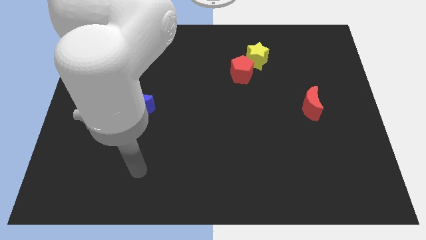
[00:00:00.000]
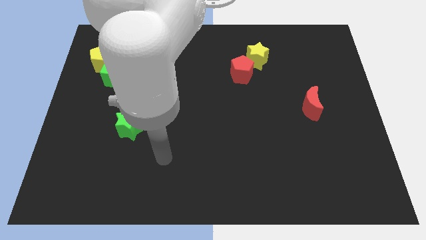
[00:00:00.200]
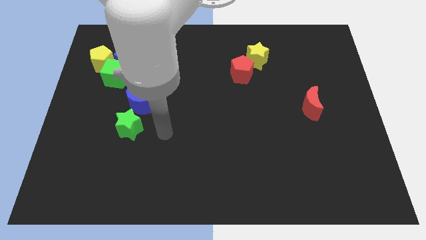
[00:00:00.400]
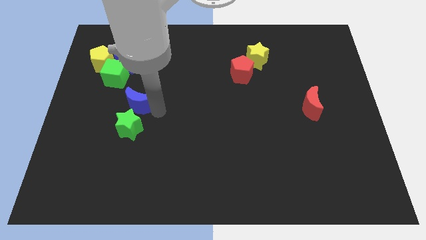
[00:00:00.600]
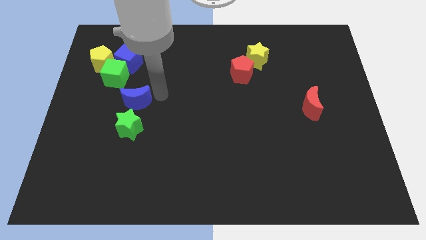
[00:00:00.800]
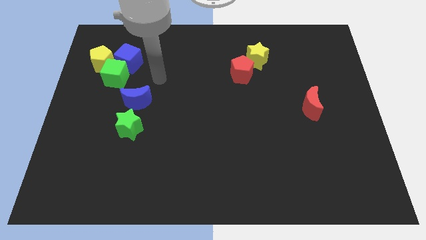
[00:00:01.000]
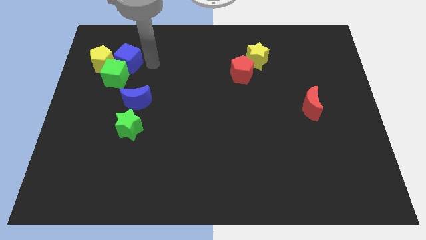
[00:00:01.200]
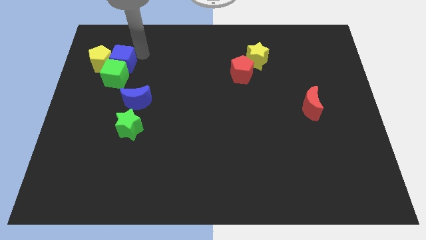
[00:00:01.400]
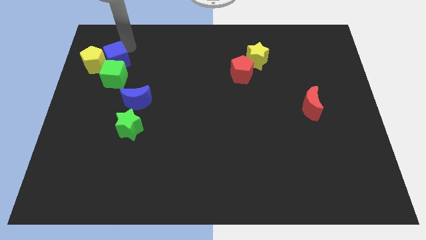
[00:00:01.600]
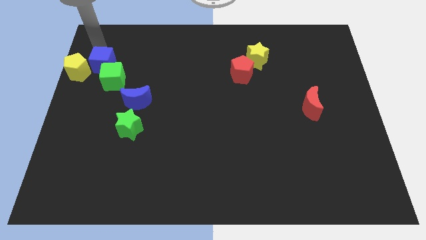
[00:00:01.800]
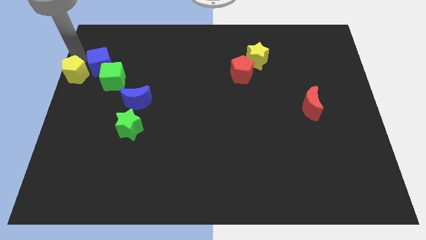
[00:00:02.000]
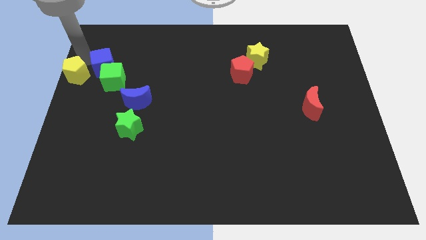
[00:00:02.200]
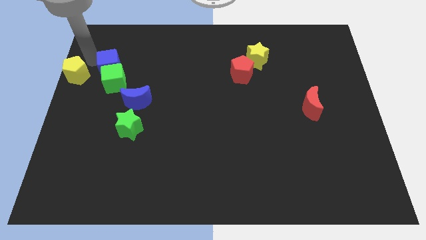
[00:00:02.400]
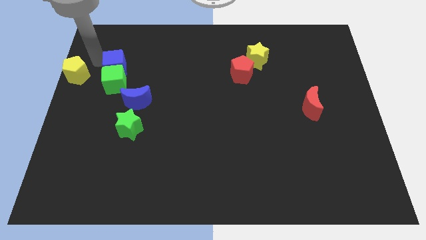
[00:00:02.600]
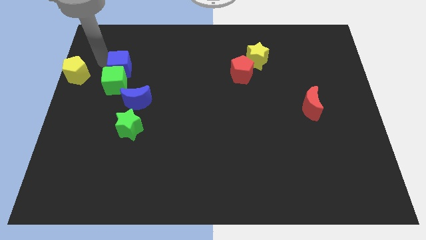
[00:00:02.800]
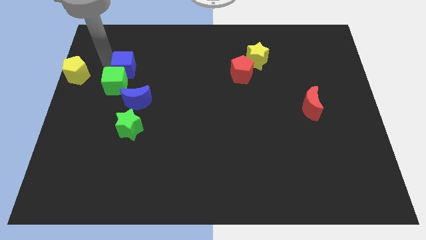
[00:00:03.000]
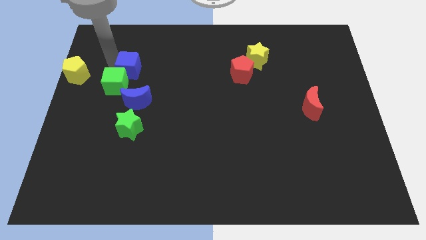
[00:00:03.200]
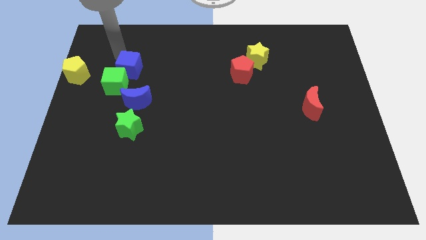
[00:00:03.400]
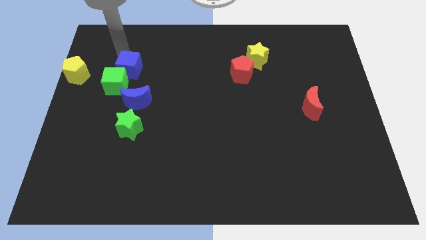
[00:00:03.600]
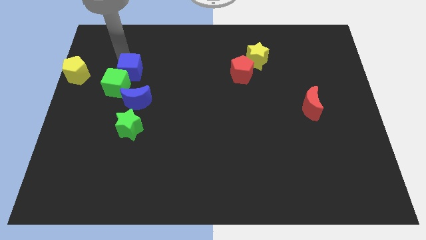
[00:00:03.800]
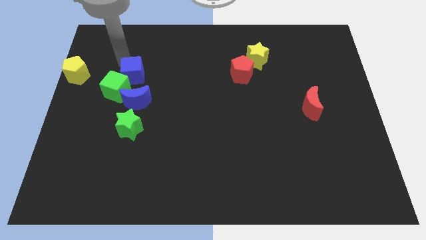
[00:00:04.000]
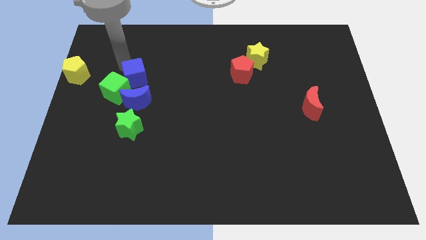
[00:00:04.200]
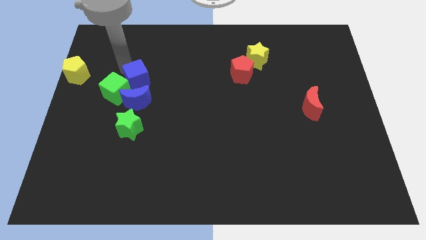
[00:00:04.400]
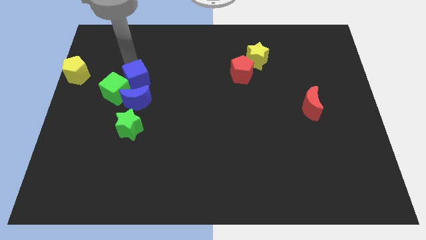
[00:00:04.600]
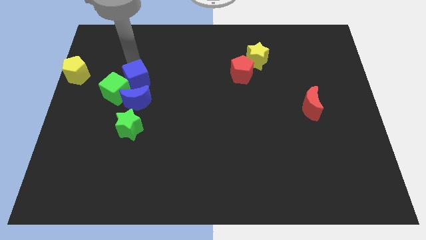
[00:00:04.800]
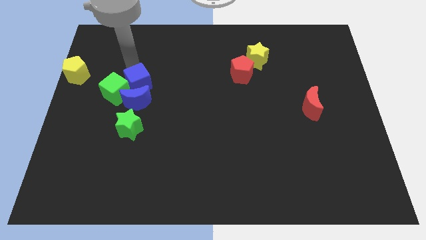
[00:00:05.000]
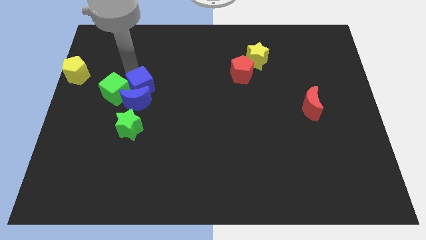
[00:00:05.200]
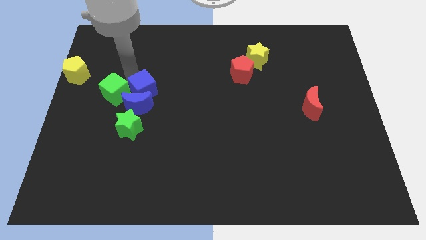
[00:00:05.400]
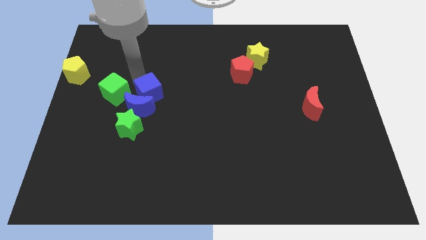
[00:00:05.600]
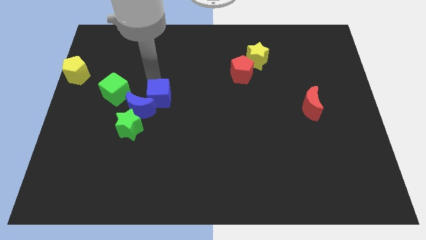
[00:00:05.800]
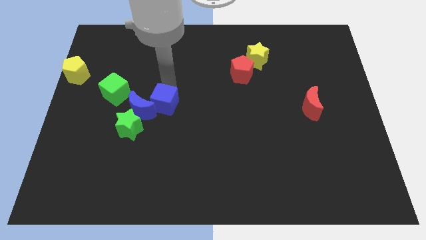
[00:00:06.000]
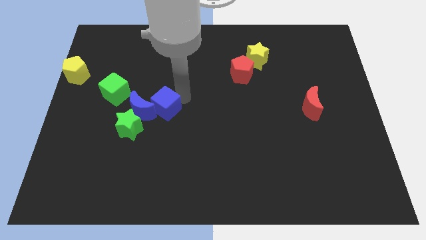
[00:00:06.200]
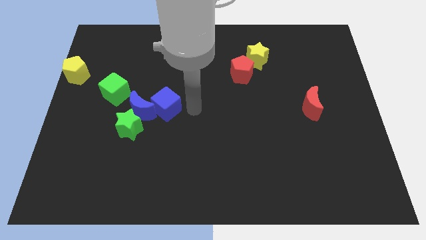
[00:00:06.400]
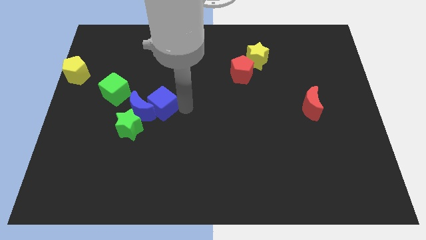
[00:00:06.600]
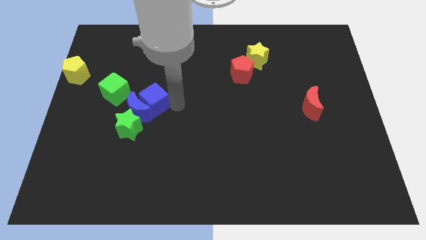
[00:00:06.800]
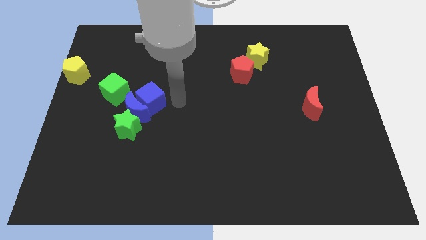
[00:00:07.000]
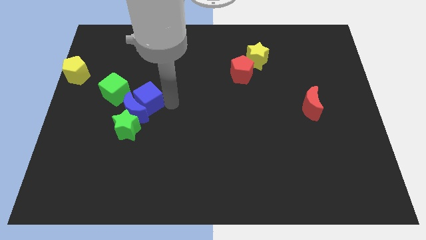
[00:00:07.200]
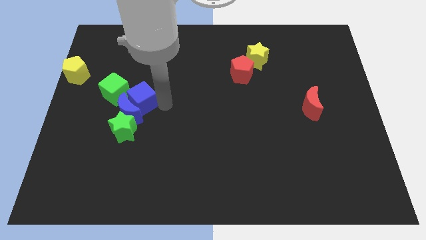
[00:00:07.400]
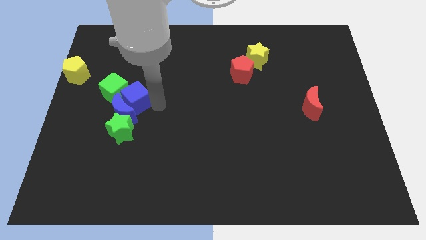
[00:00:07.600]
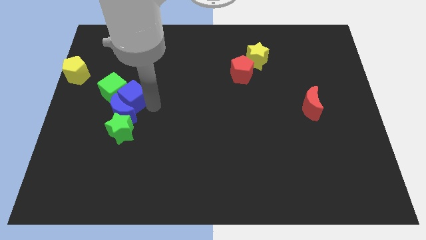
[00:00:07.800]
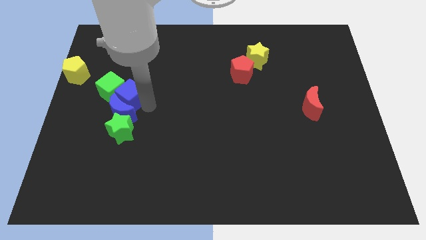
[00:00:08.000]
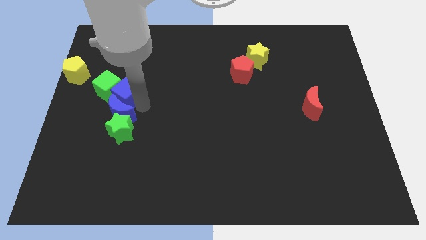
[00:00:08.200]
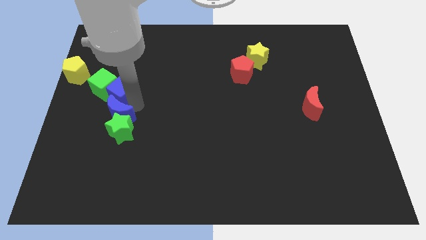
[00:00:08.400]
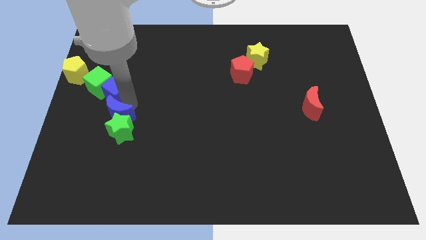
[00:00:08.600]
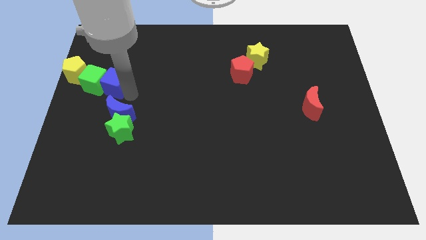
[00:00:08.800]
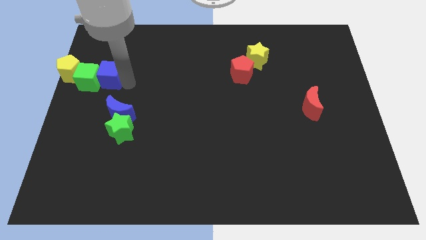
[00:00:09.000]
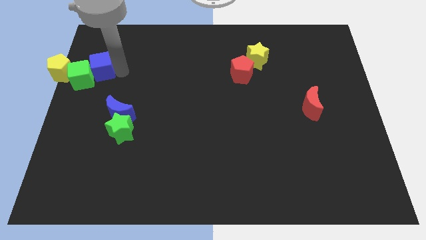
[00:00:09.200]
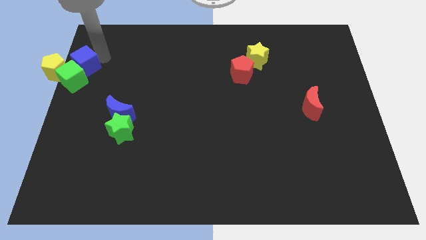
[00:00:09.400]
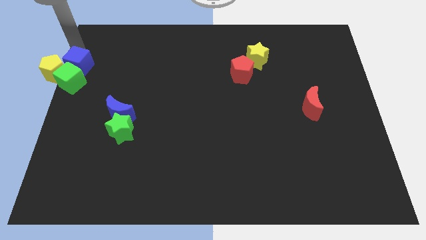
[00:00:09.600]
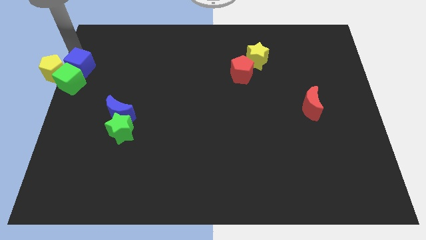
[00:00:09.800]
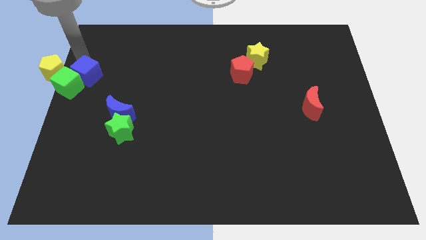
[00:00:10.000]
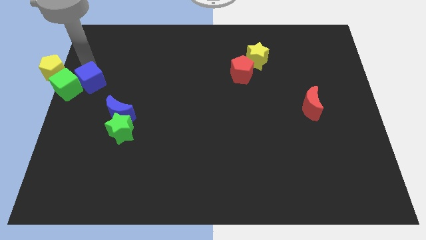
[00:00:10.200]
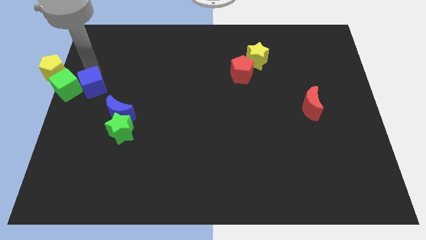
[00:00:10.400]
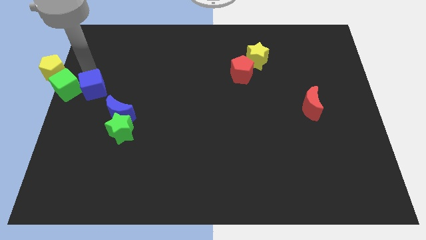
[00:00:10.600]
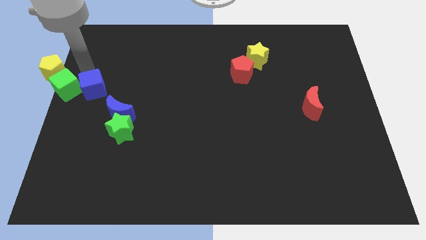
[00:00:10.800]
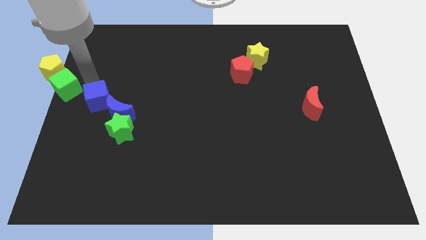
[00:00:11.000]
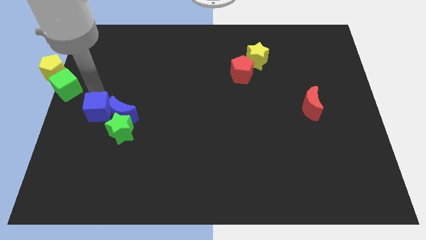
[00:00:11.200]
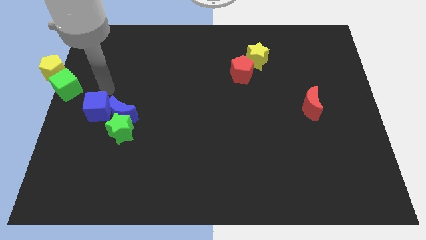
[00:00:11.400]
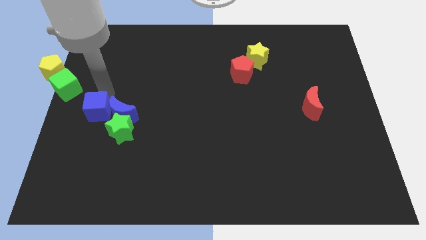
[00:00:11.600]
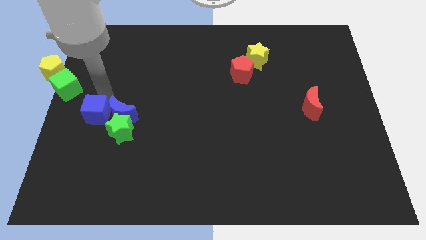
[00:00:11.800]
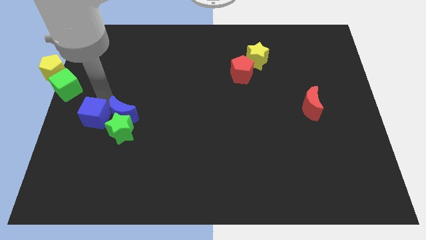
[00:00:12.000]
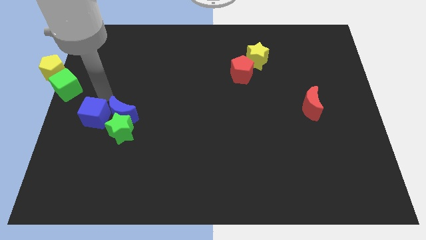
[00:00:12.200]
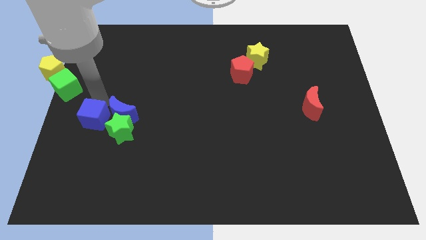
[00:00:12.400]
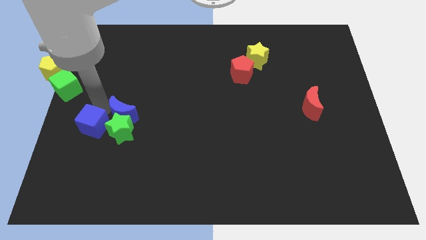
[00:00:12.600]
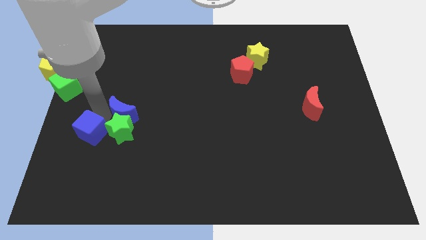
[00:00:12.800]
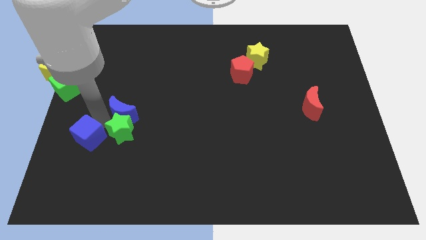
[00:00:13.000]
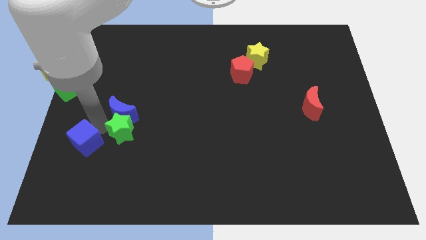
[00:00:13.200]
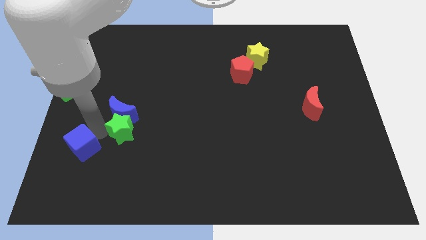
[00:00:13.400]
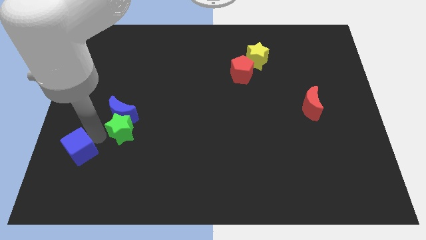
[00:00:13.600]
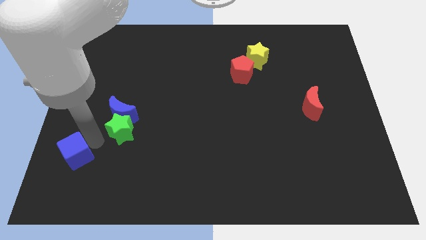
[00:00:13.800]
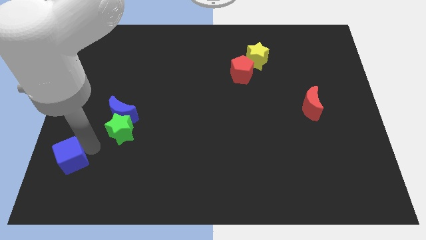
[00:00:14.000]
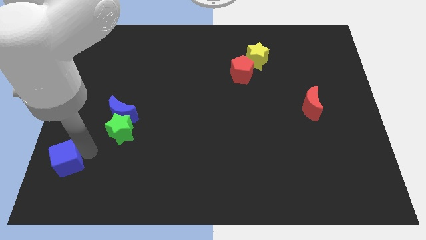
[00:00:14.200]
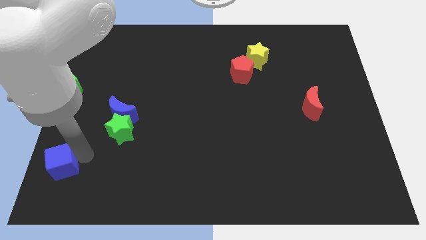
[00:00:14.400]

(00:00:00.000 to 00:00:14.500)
move the blue cube to the lower left corner
